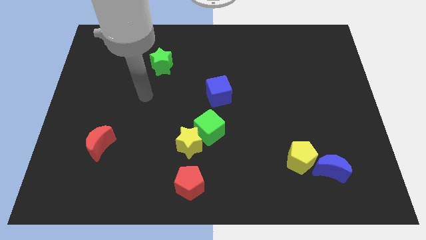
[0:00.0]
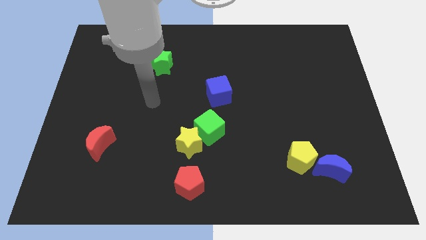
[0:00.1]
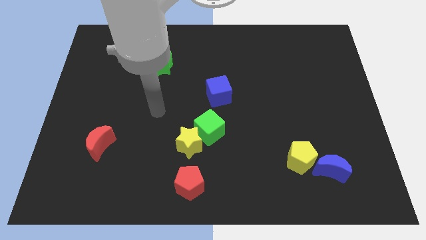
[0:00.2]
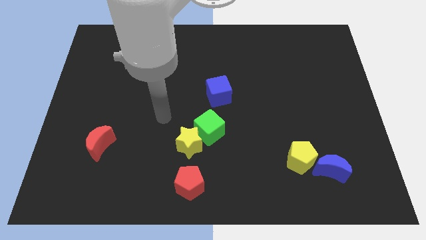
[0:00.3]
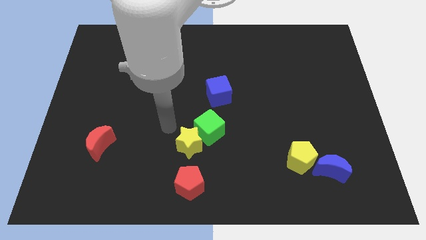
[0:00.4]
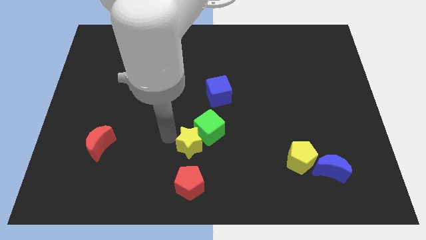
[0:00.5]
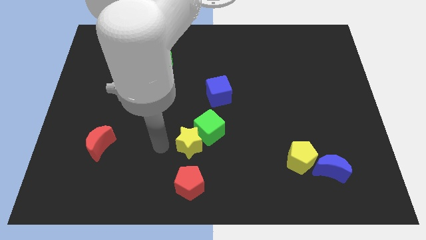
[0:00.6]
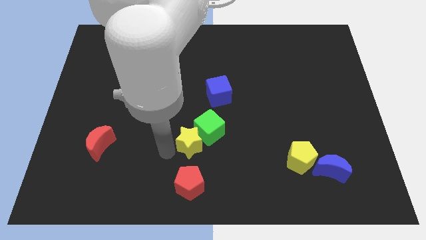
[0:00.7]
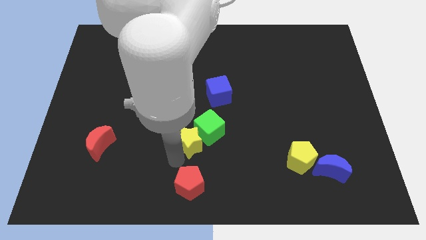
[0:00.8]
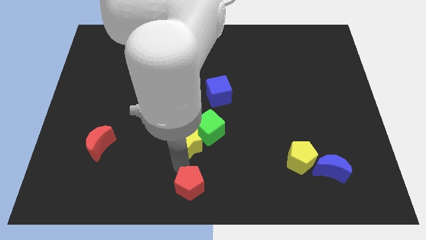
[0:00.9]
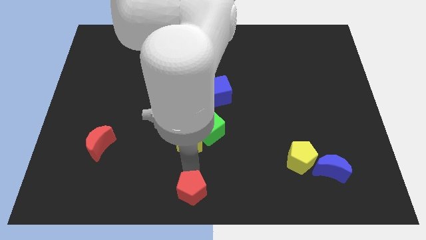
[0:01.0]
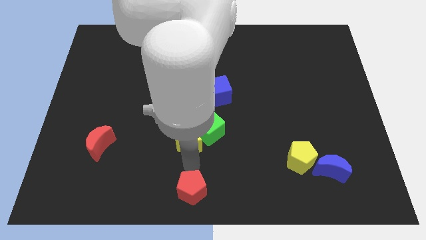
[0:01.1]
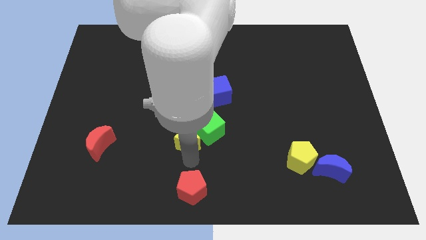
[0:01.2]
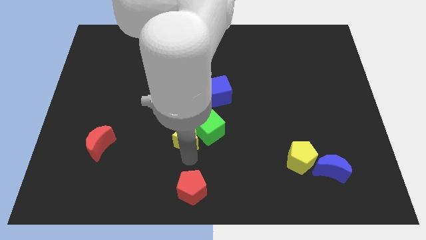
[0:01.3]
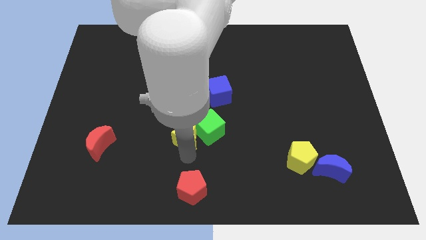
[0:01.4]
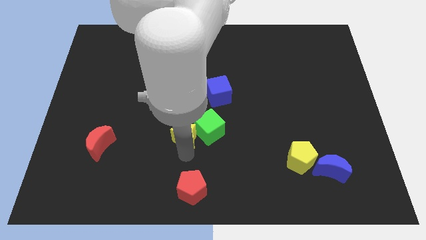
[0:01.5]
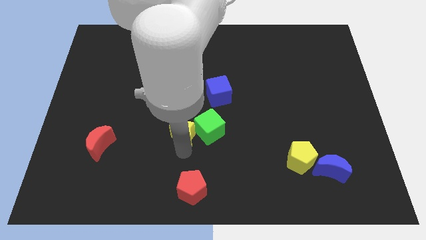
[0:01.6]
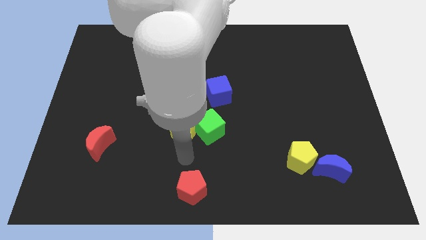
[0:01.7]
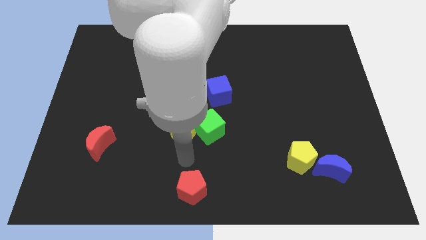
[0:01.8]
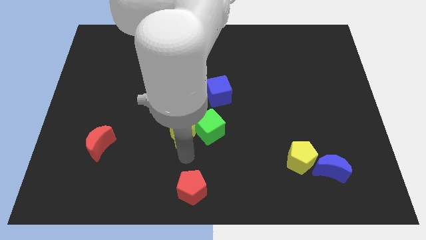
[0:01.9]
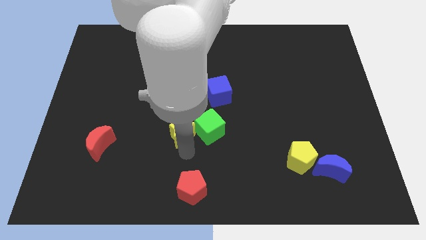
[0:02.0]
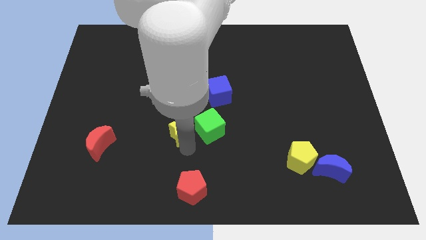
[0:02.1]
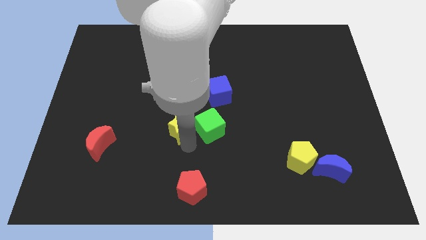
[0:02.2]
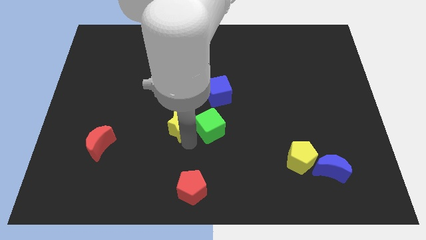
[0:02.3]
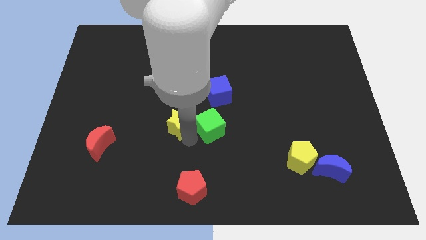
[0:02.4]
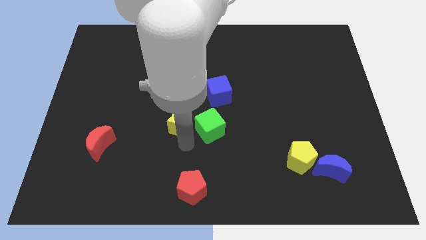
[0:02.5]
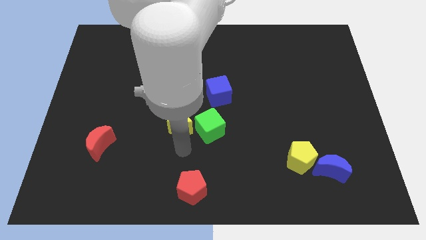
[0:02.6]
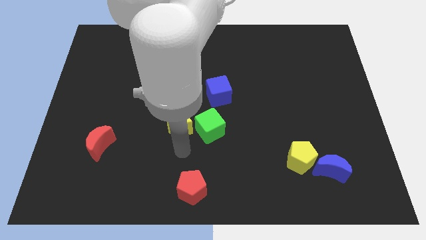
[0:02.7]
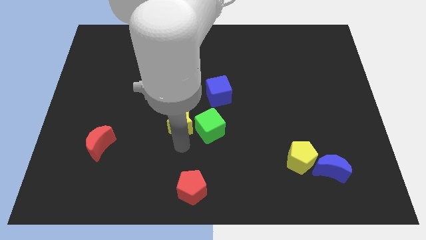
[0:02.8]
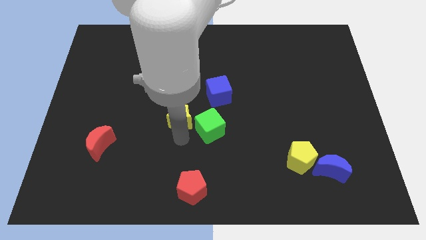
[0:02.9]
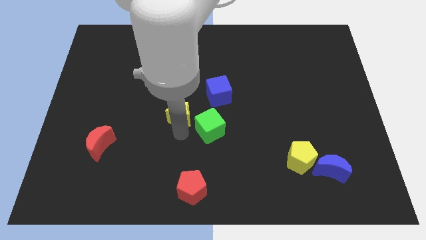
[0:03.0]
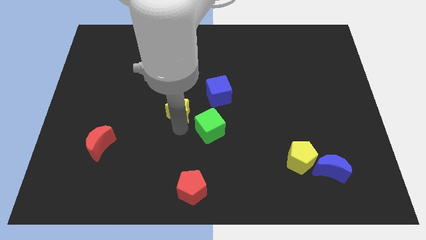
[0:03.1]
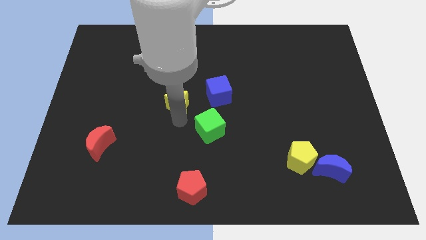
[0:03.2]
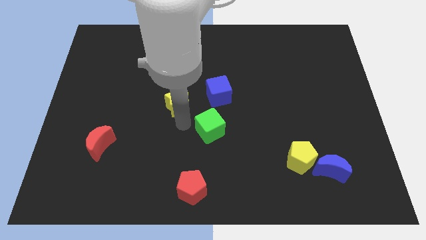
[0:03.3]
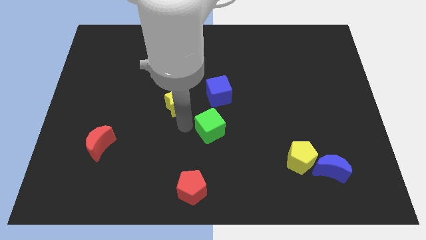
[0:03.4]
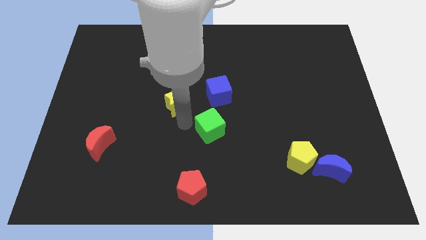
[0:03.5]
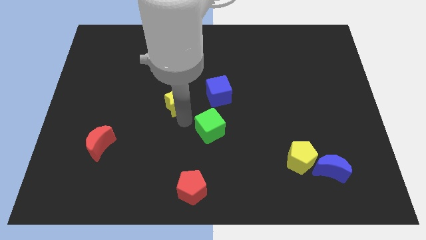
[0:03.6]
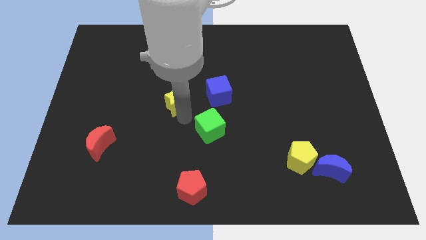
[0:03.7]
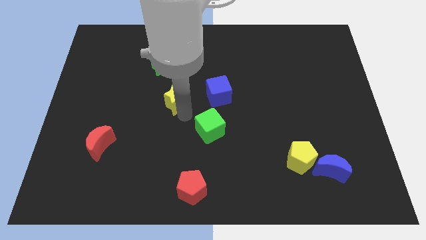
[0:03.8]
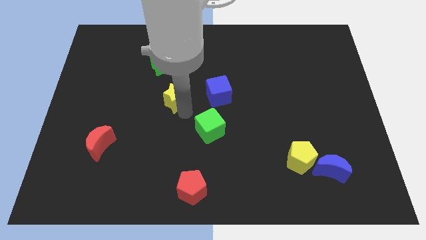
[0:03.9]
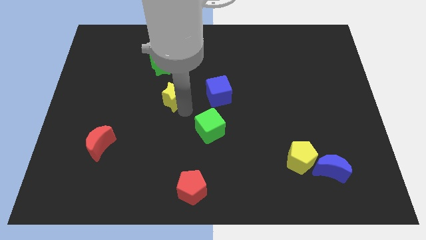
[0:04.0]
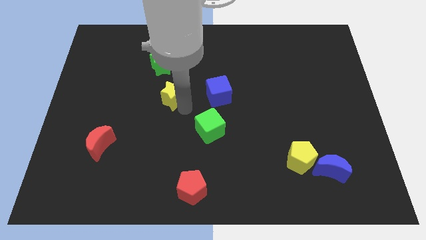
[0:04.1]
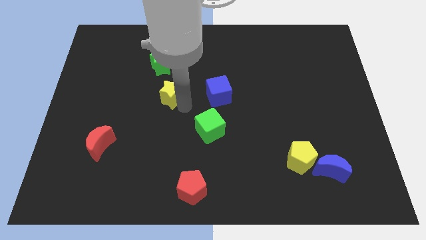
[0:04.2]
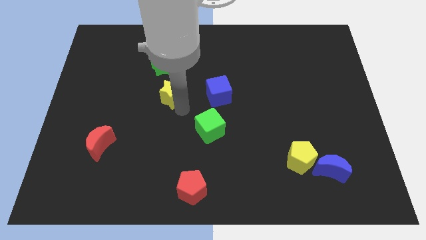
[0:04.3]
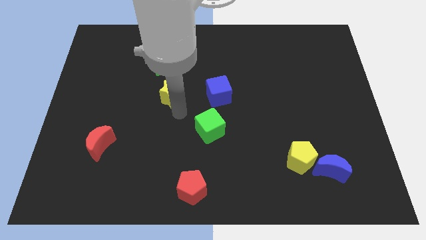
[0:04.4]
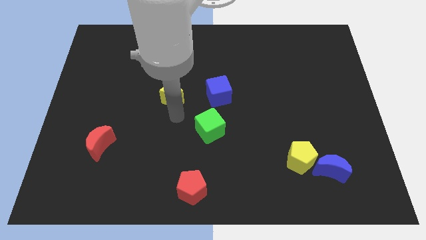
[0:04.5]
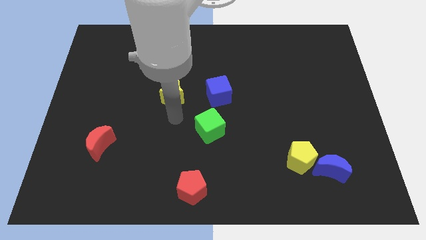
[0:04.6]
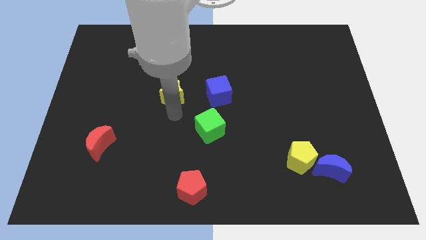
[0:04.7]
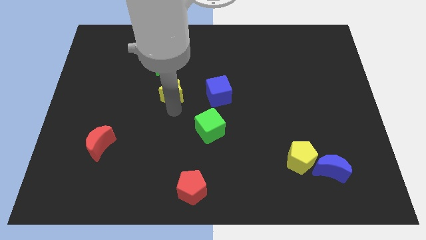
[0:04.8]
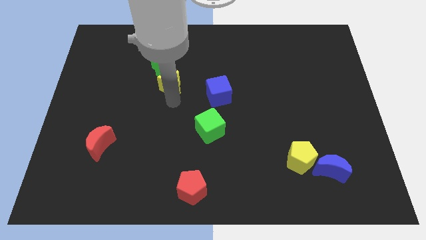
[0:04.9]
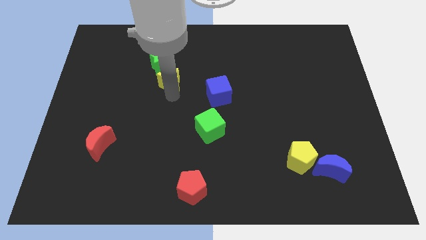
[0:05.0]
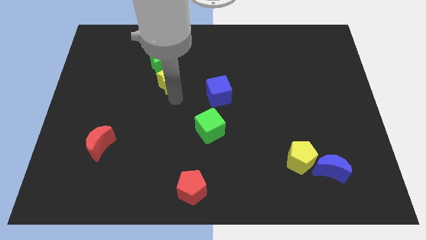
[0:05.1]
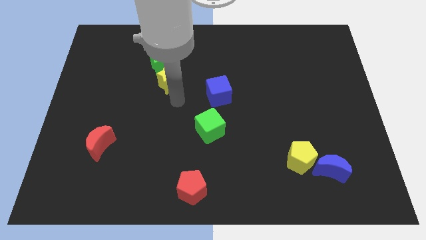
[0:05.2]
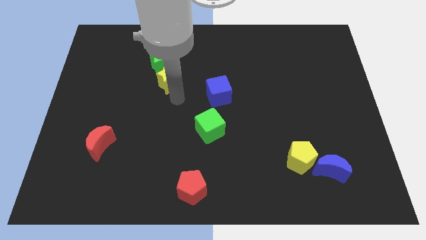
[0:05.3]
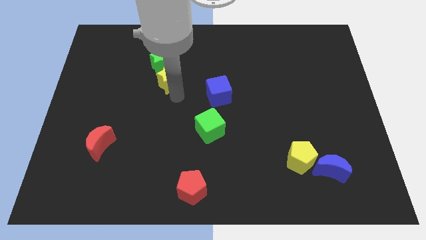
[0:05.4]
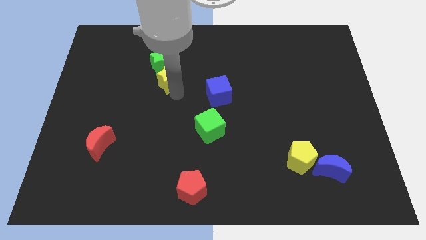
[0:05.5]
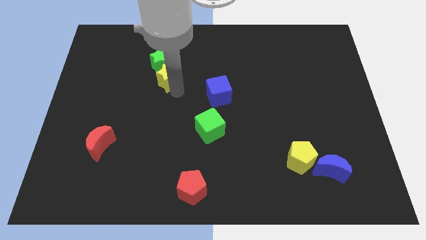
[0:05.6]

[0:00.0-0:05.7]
slide the yellow star to the green star

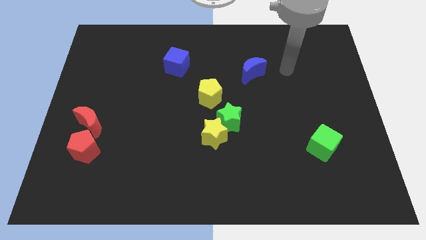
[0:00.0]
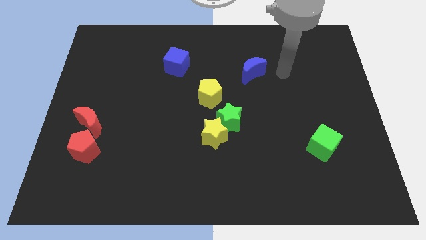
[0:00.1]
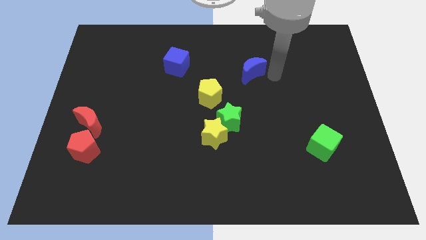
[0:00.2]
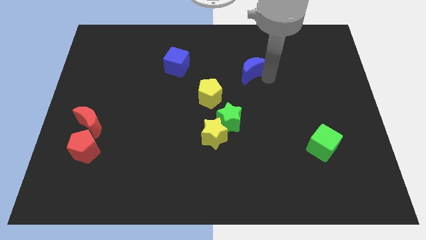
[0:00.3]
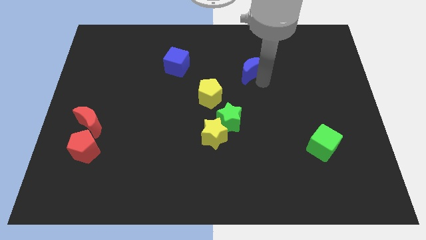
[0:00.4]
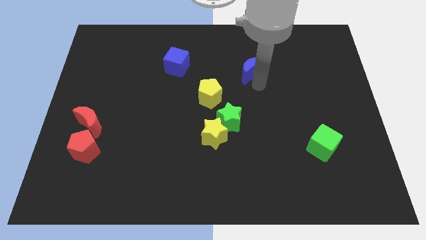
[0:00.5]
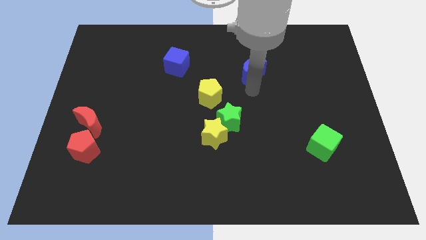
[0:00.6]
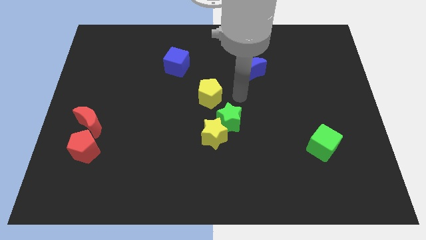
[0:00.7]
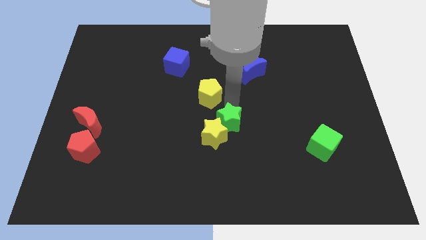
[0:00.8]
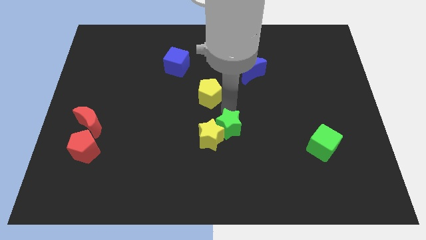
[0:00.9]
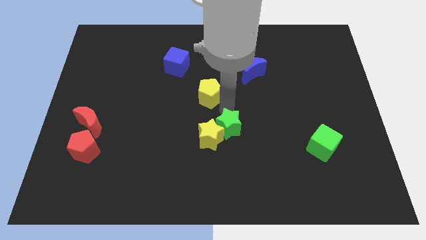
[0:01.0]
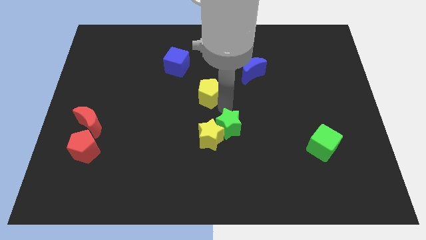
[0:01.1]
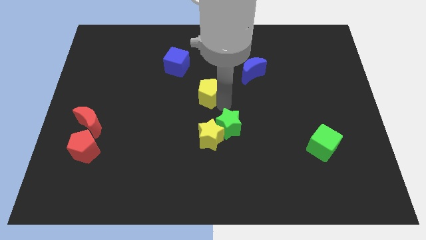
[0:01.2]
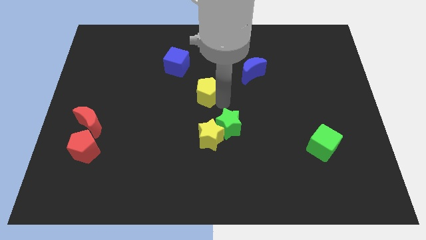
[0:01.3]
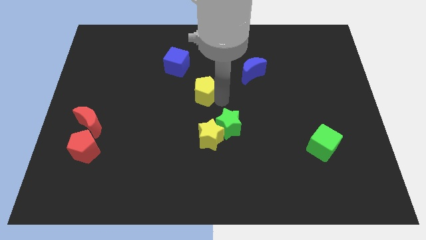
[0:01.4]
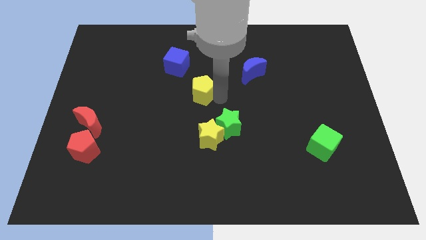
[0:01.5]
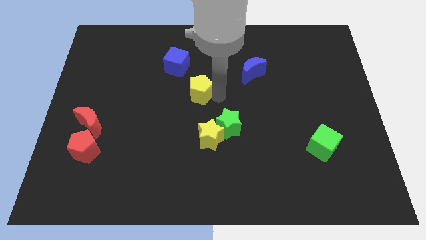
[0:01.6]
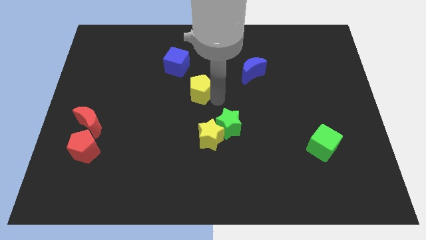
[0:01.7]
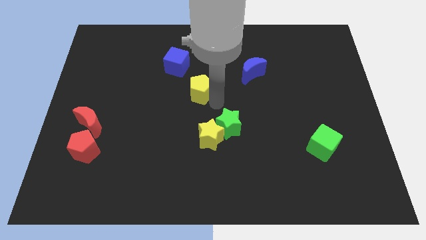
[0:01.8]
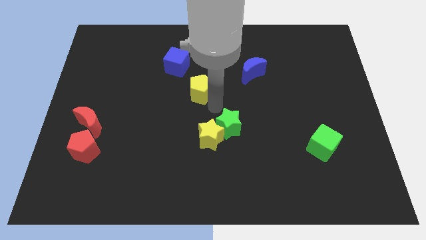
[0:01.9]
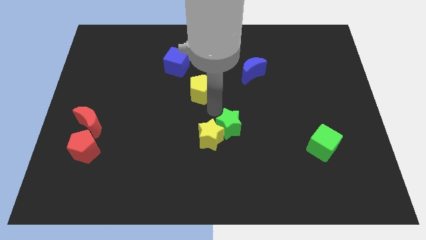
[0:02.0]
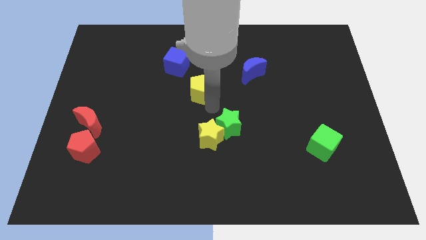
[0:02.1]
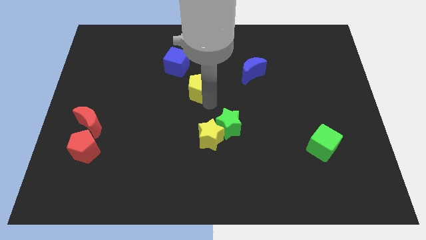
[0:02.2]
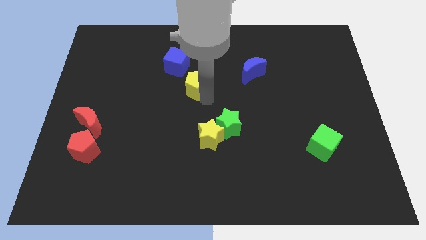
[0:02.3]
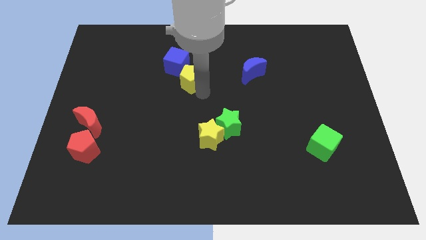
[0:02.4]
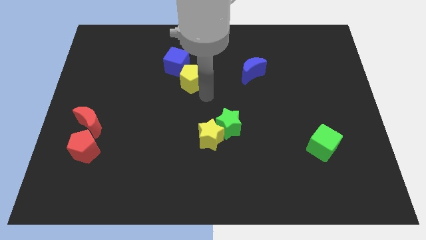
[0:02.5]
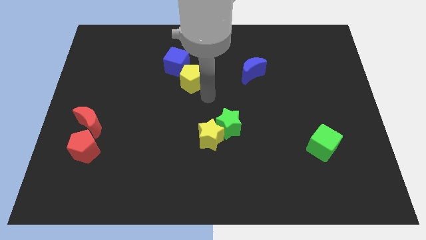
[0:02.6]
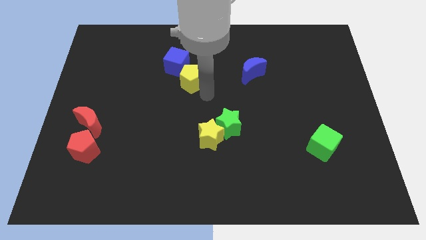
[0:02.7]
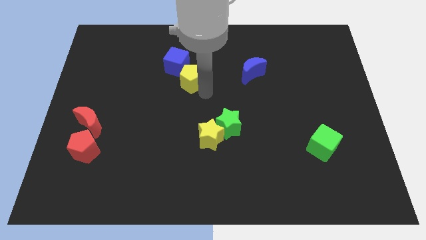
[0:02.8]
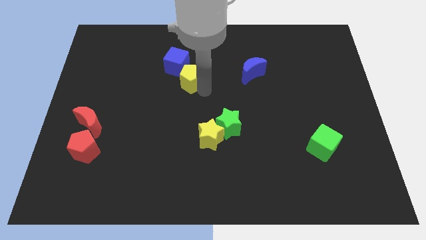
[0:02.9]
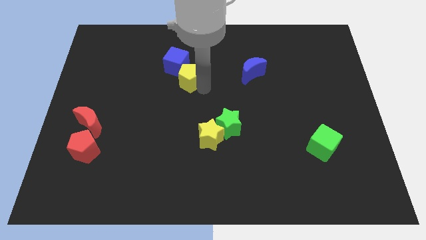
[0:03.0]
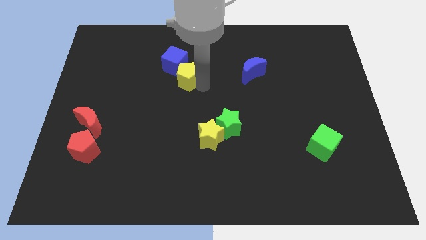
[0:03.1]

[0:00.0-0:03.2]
slide the yellow pentagon close to the blue cube
